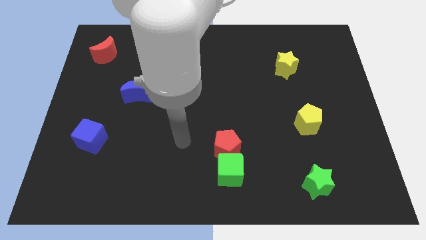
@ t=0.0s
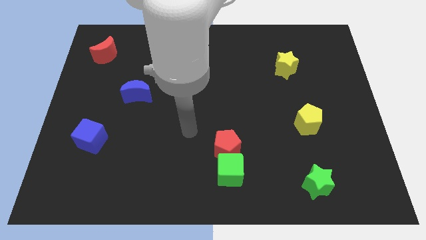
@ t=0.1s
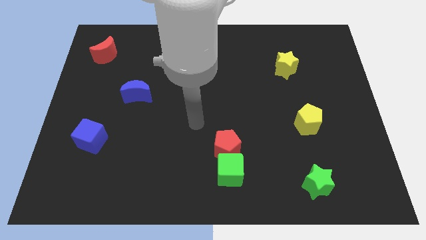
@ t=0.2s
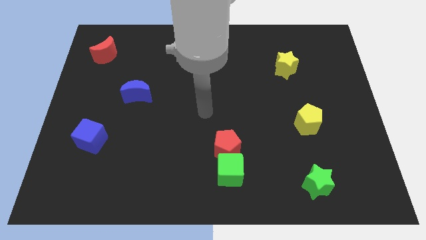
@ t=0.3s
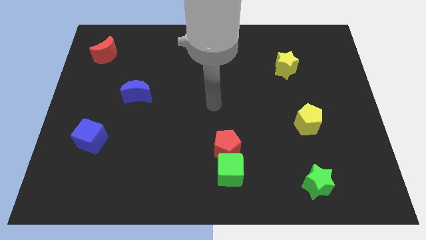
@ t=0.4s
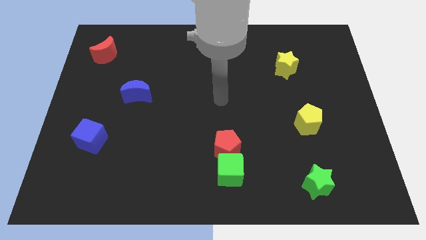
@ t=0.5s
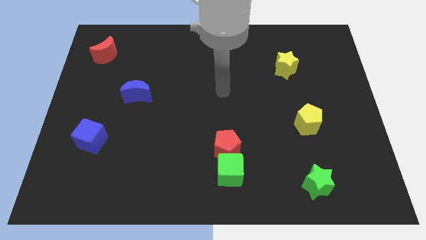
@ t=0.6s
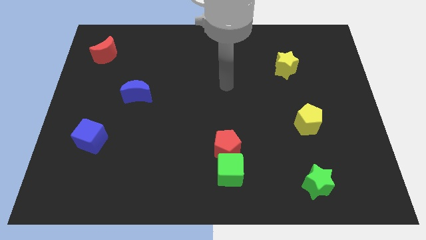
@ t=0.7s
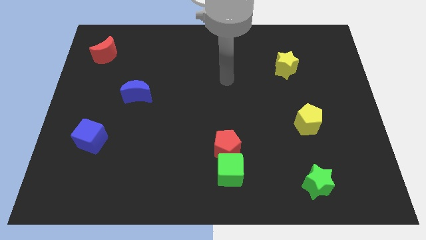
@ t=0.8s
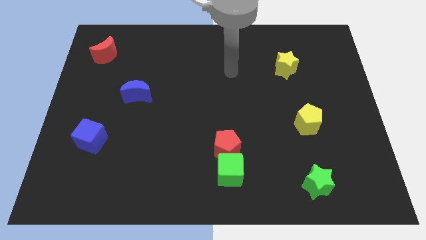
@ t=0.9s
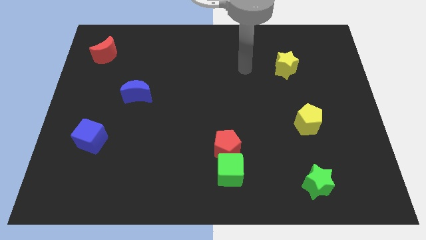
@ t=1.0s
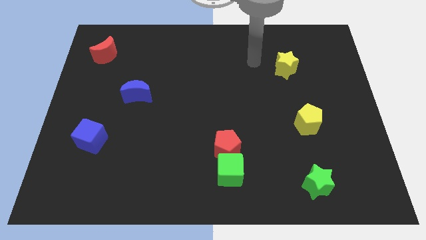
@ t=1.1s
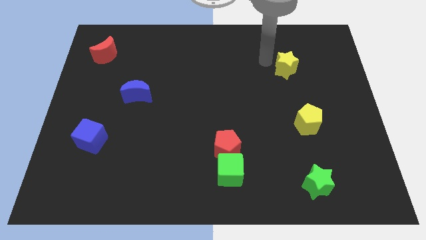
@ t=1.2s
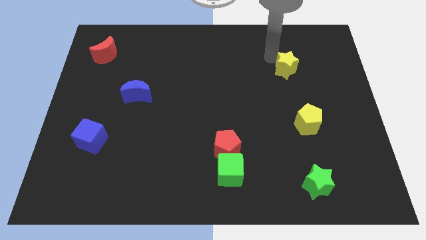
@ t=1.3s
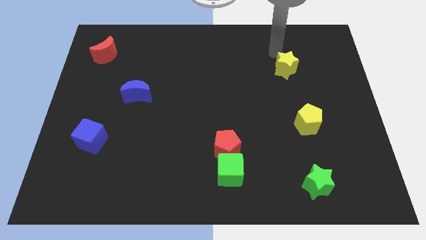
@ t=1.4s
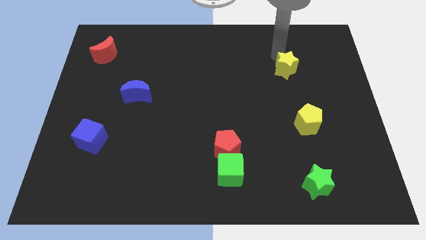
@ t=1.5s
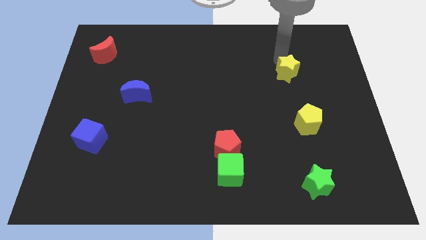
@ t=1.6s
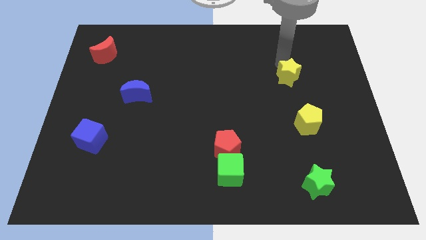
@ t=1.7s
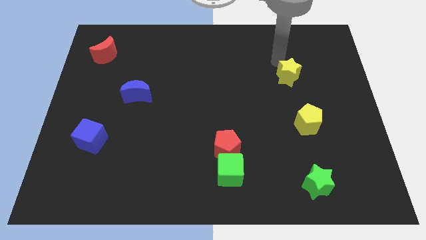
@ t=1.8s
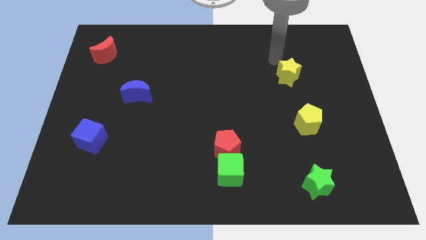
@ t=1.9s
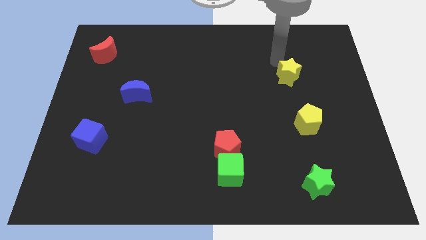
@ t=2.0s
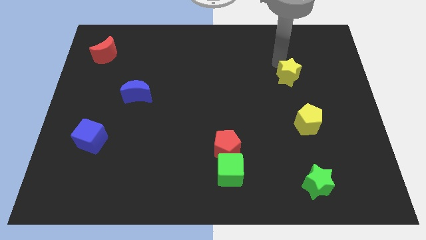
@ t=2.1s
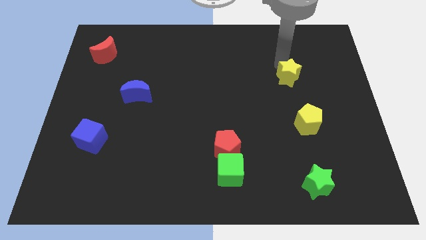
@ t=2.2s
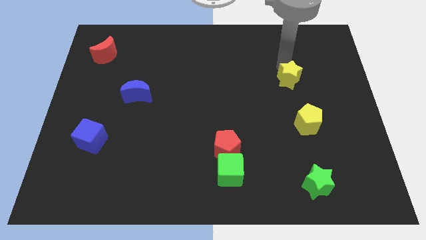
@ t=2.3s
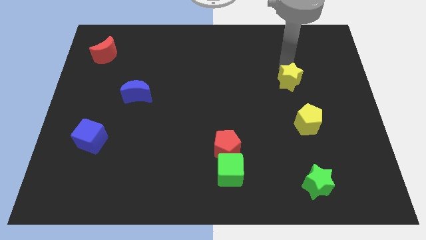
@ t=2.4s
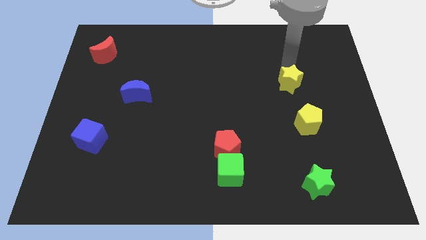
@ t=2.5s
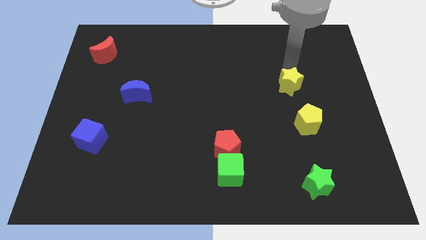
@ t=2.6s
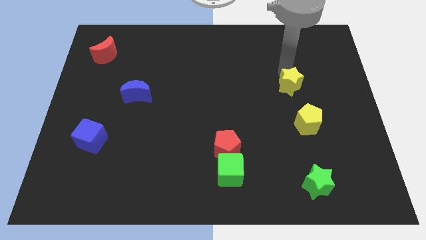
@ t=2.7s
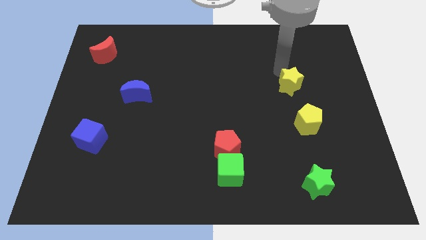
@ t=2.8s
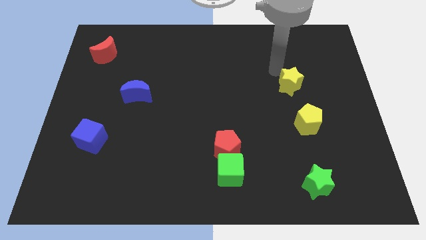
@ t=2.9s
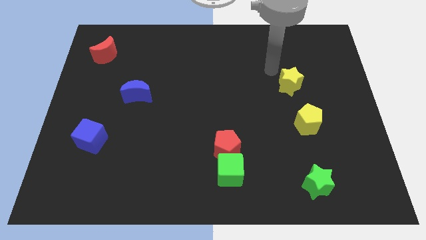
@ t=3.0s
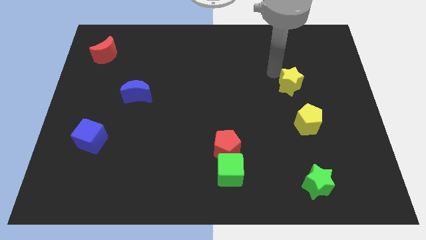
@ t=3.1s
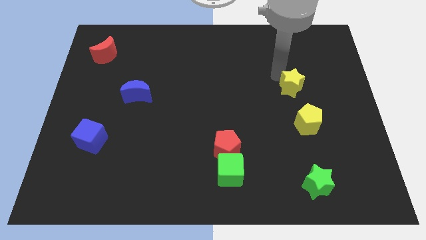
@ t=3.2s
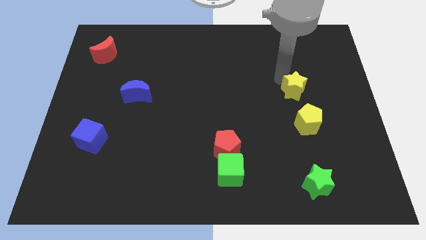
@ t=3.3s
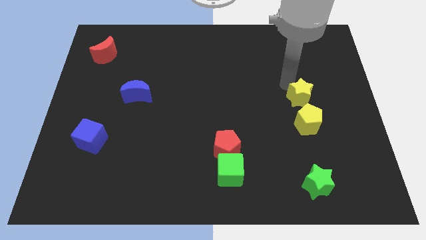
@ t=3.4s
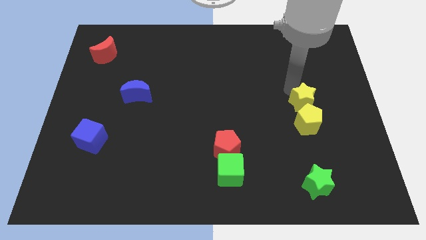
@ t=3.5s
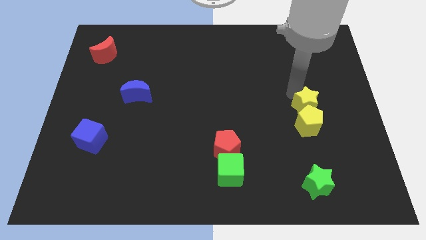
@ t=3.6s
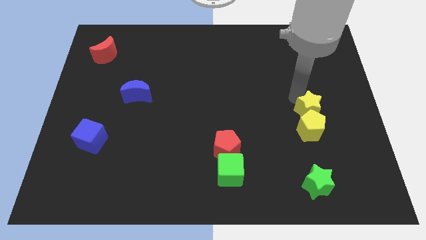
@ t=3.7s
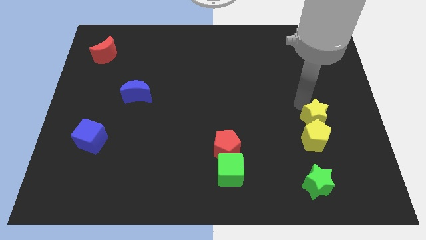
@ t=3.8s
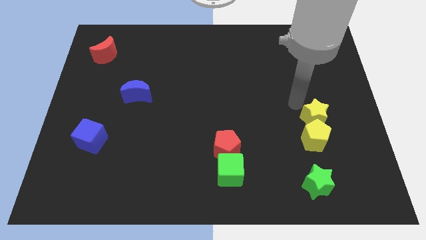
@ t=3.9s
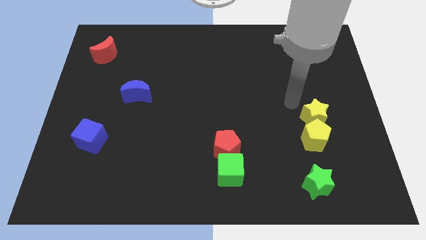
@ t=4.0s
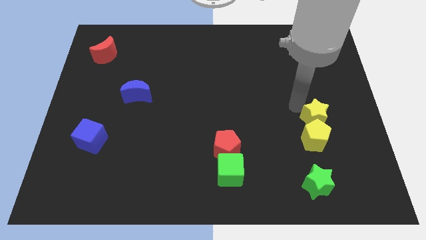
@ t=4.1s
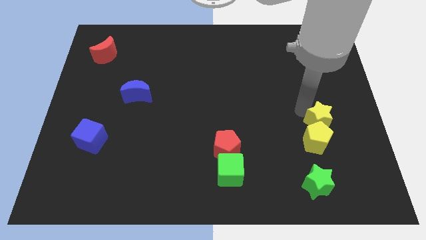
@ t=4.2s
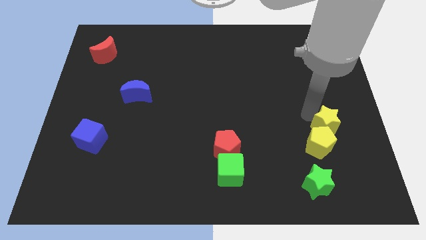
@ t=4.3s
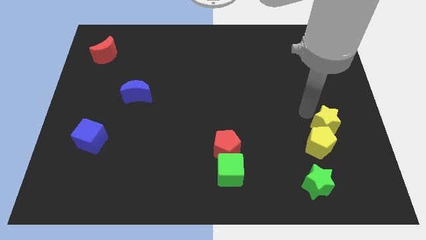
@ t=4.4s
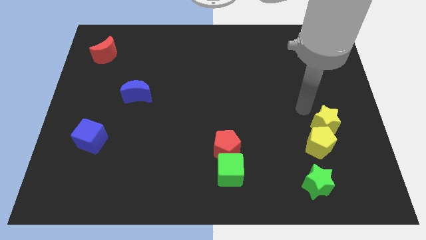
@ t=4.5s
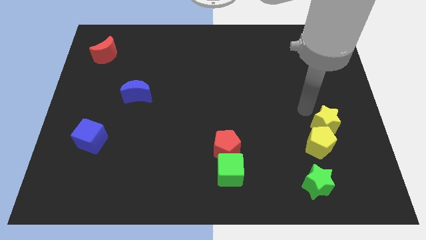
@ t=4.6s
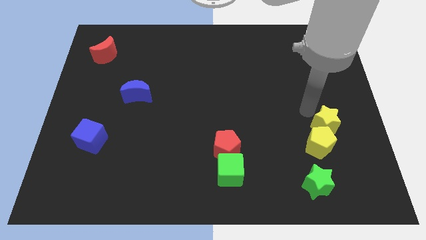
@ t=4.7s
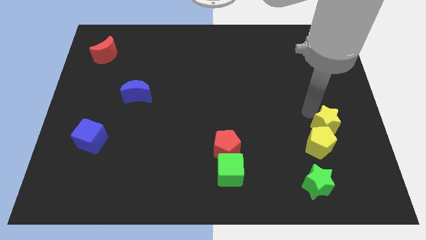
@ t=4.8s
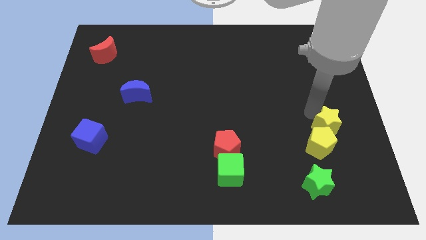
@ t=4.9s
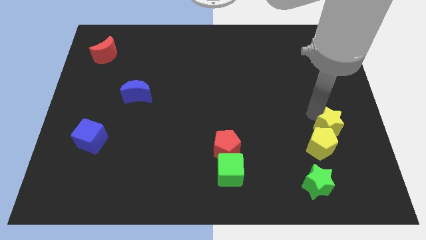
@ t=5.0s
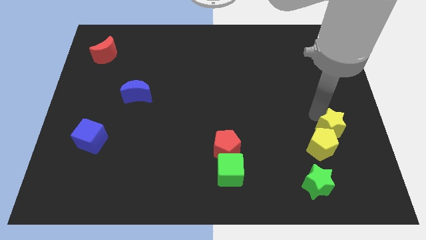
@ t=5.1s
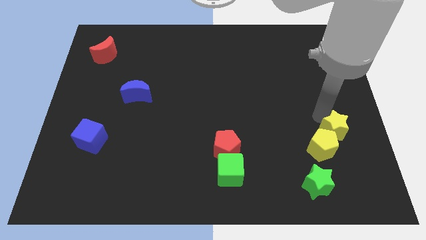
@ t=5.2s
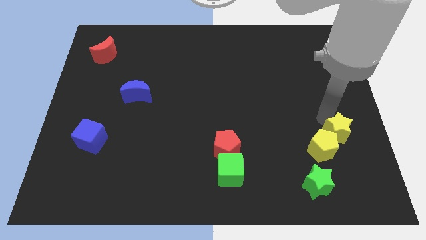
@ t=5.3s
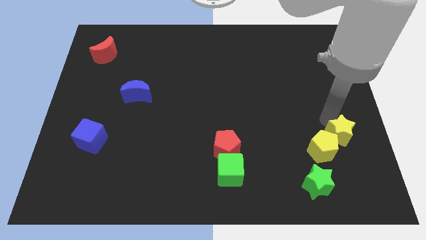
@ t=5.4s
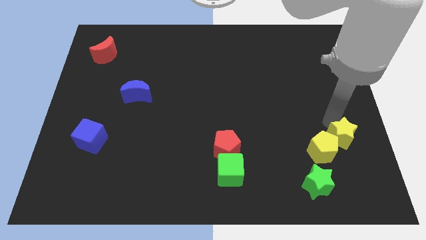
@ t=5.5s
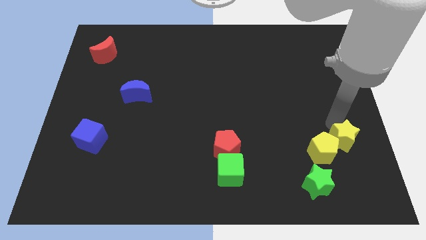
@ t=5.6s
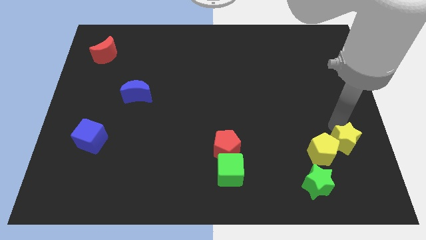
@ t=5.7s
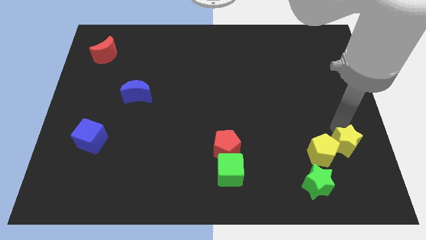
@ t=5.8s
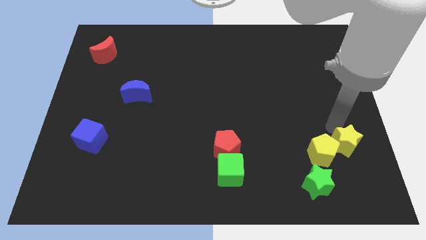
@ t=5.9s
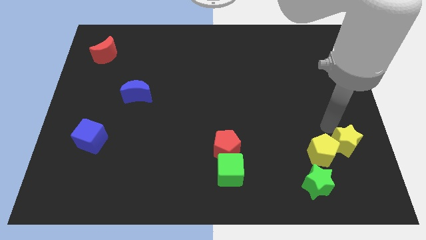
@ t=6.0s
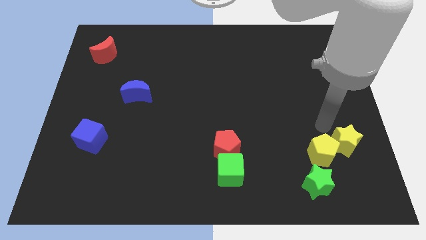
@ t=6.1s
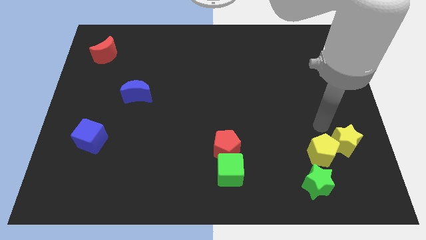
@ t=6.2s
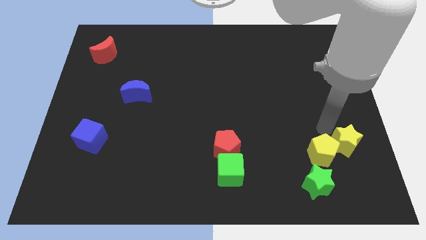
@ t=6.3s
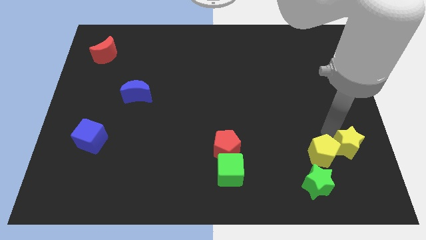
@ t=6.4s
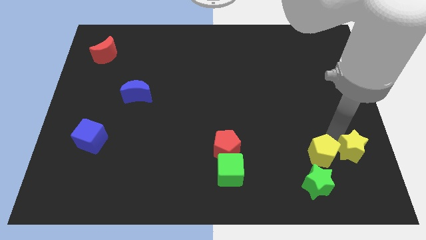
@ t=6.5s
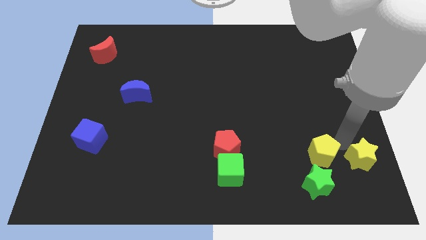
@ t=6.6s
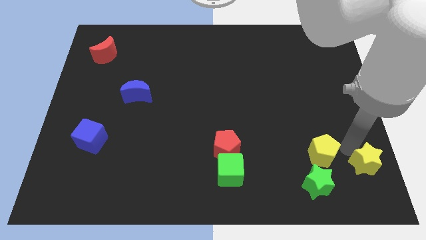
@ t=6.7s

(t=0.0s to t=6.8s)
move the yellow star to the bottom right
